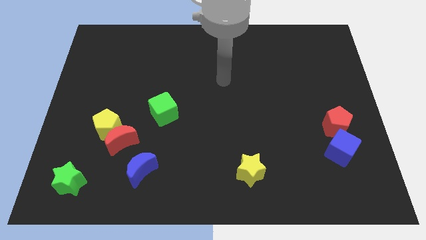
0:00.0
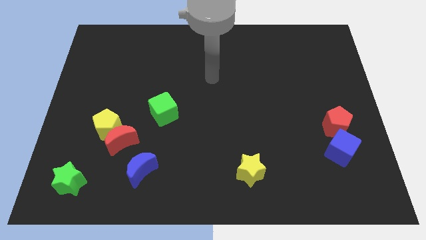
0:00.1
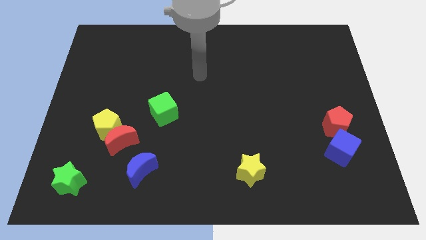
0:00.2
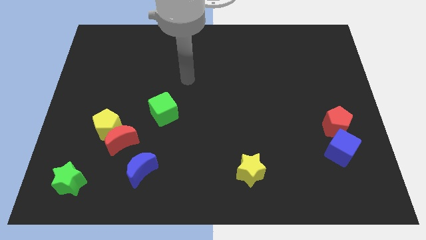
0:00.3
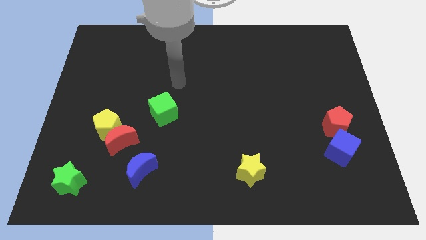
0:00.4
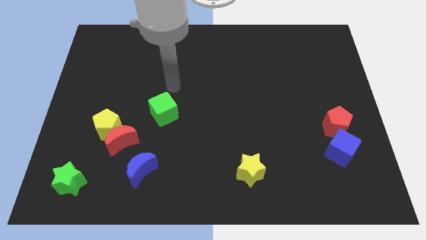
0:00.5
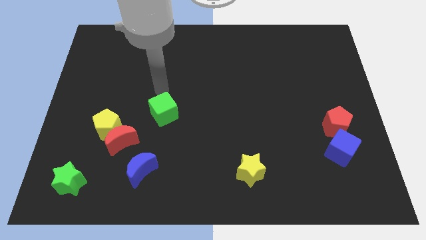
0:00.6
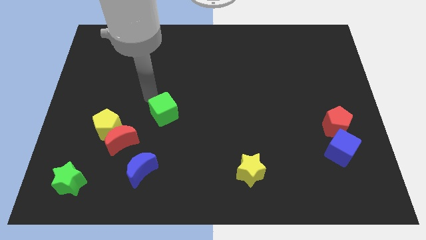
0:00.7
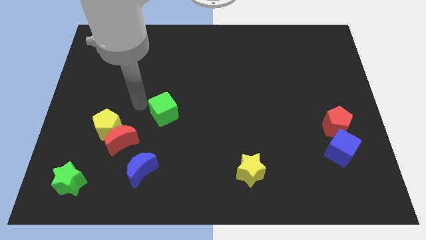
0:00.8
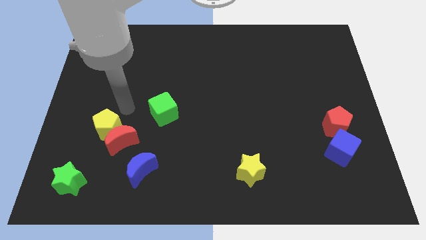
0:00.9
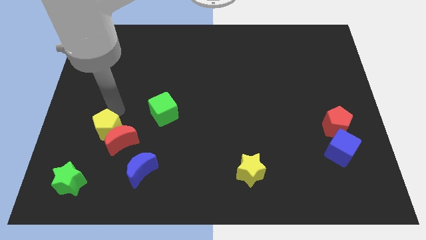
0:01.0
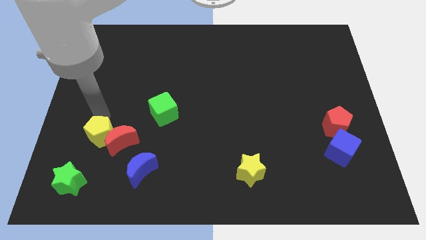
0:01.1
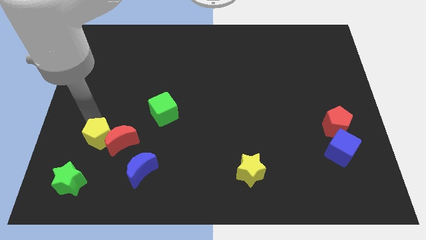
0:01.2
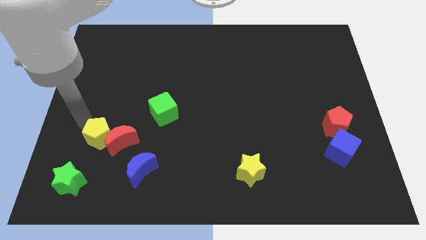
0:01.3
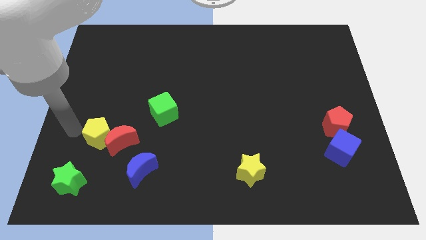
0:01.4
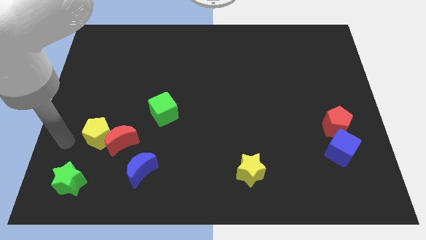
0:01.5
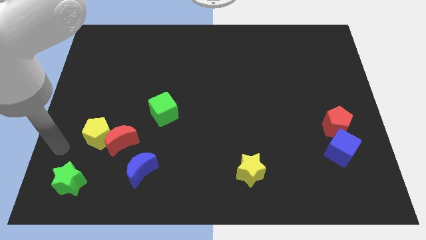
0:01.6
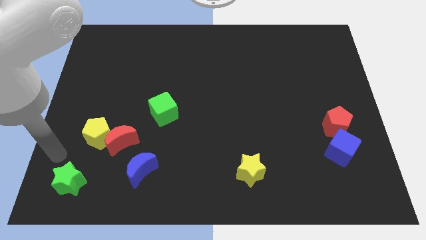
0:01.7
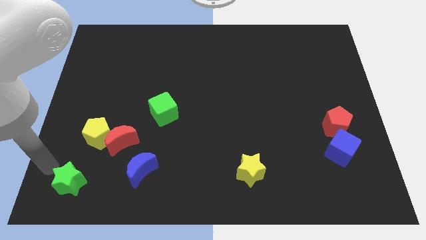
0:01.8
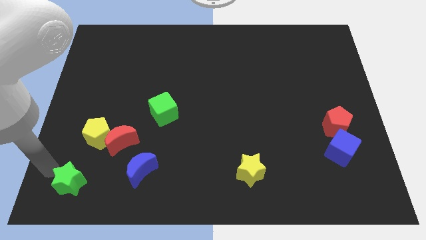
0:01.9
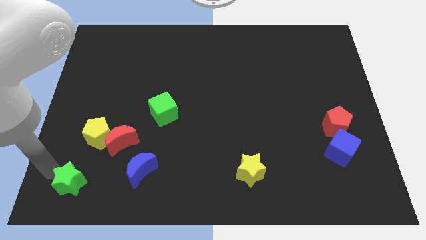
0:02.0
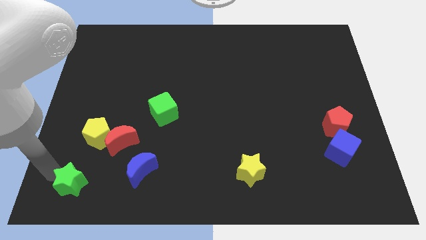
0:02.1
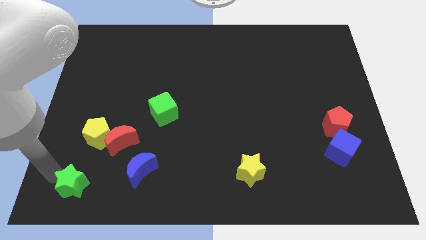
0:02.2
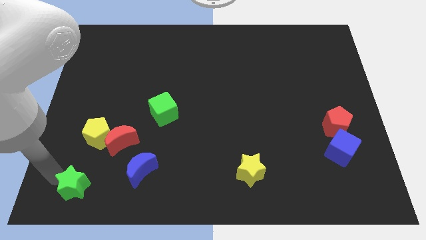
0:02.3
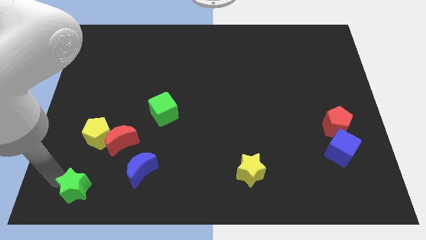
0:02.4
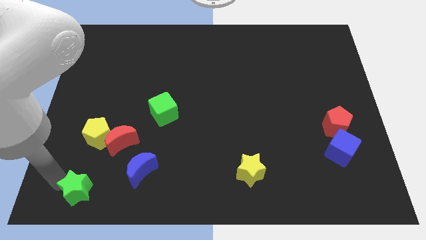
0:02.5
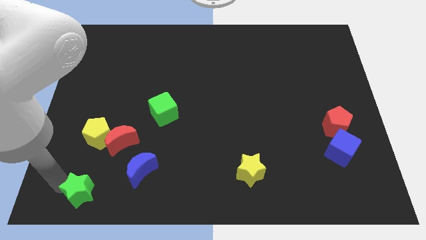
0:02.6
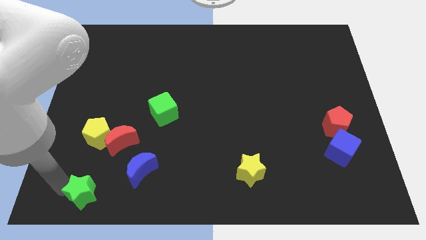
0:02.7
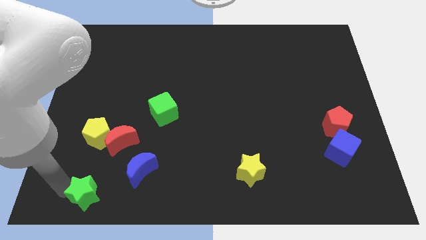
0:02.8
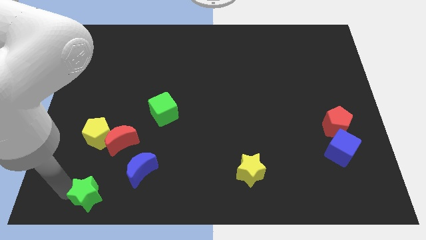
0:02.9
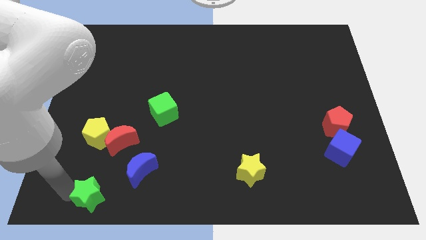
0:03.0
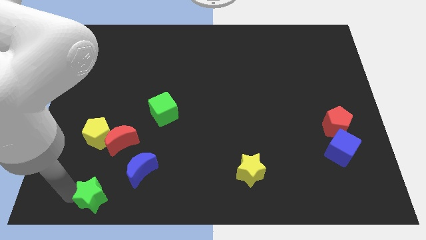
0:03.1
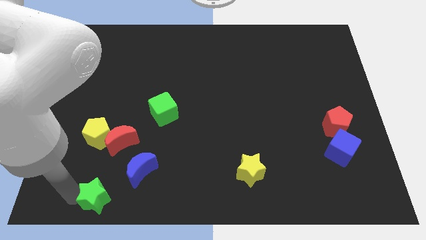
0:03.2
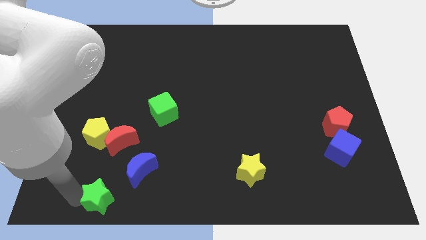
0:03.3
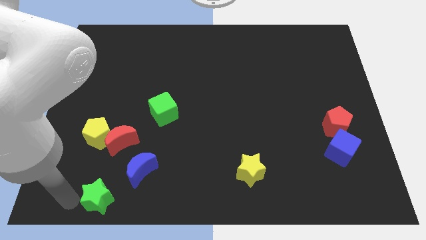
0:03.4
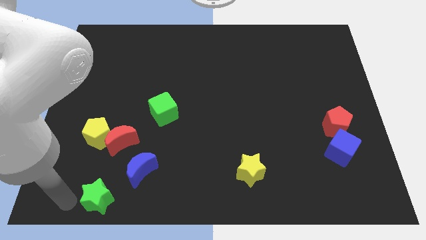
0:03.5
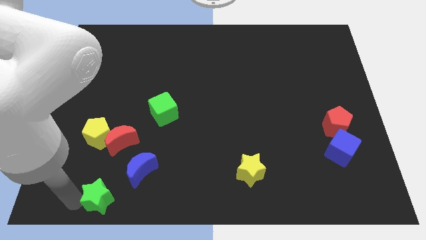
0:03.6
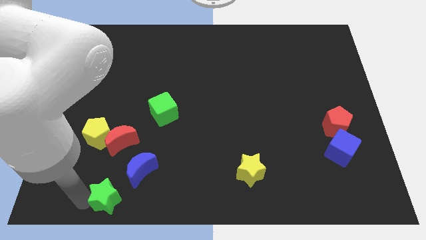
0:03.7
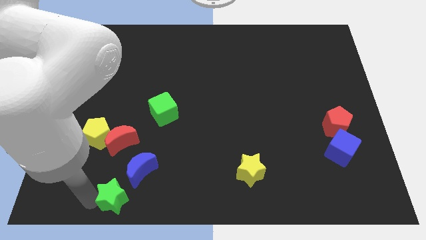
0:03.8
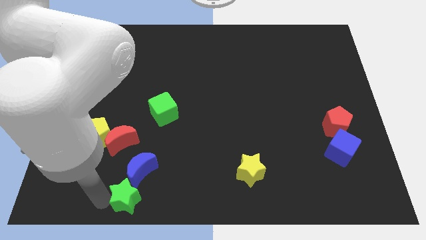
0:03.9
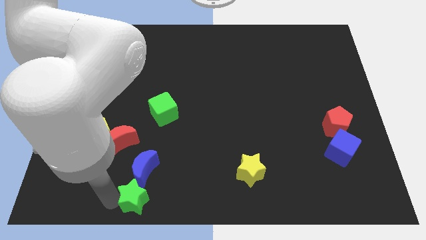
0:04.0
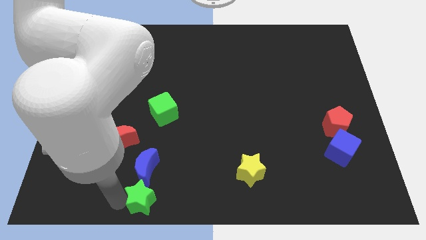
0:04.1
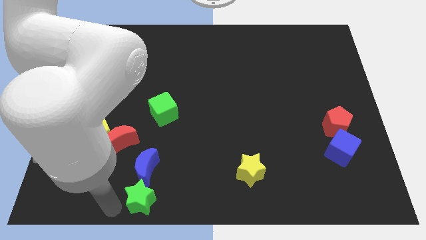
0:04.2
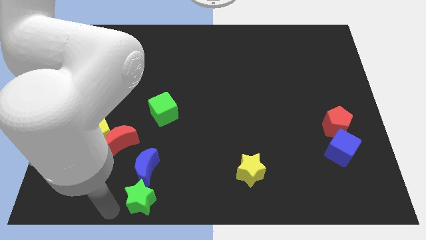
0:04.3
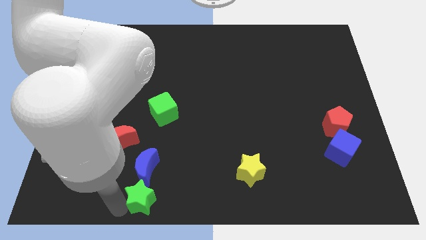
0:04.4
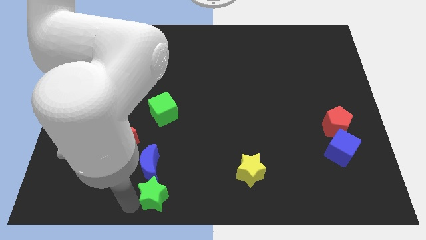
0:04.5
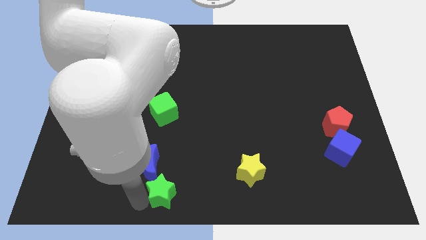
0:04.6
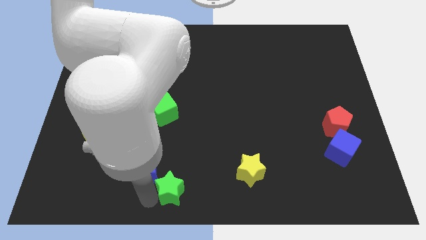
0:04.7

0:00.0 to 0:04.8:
push the green star to the right

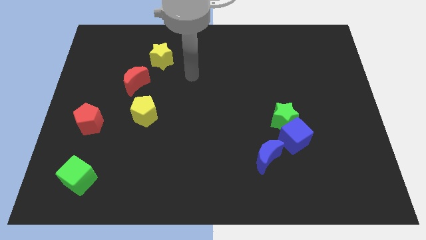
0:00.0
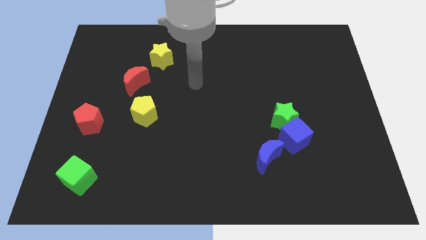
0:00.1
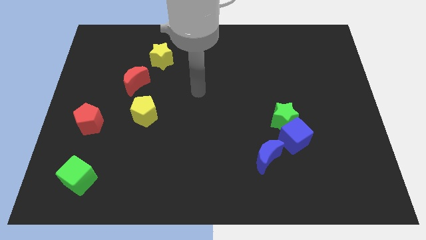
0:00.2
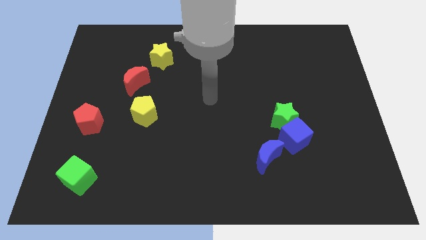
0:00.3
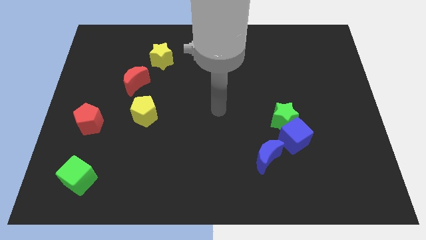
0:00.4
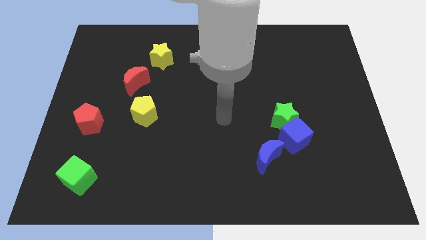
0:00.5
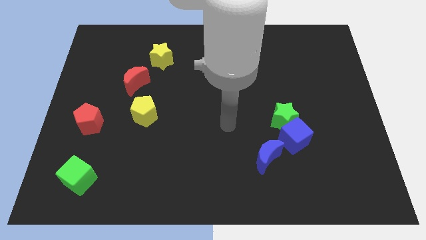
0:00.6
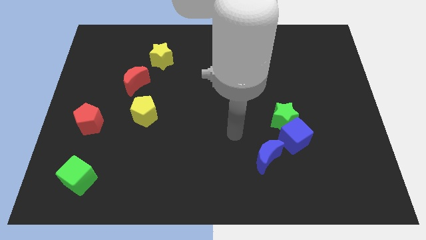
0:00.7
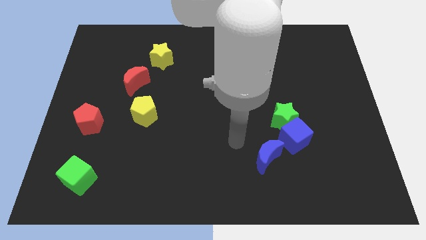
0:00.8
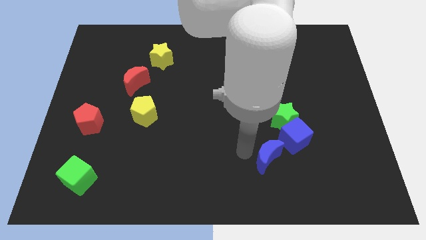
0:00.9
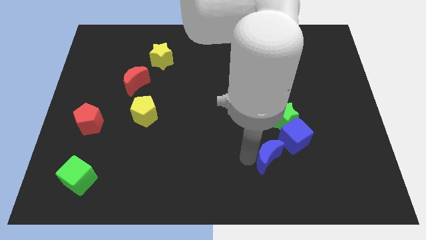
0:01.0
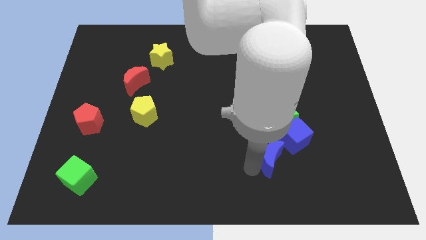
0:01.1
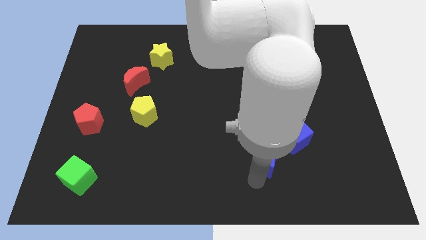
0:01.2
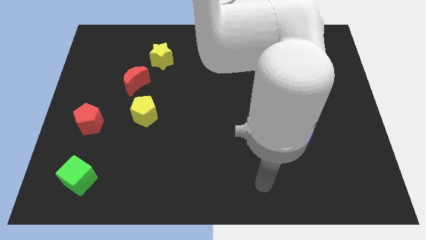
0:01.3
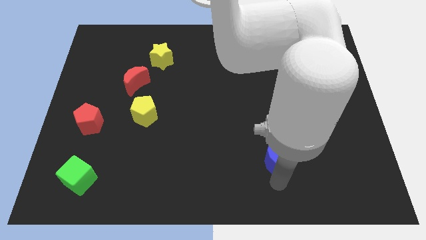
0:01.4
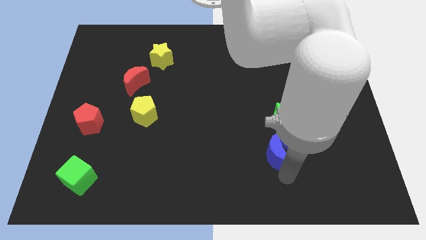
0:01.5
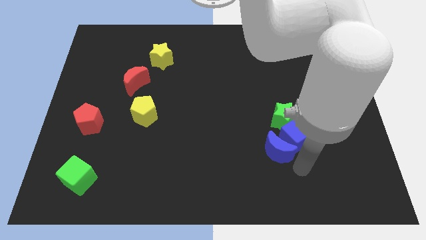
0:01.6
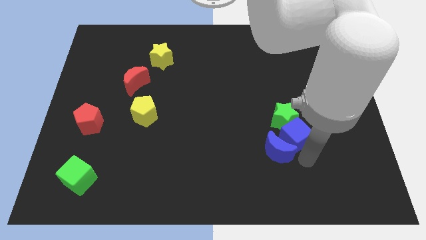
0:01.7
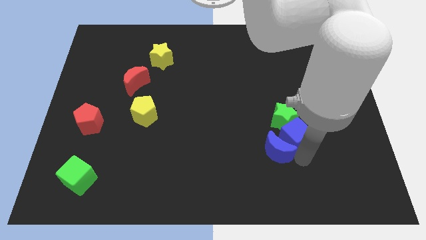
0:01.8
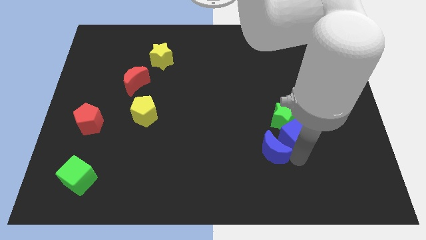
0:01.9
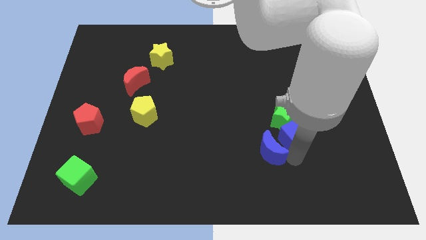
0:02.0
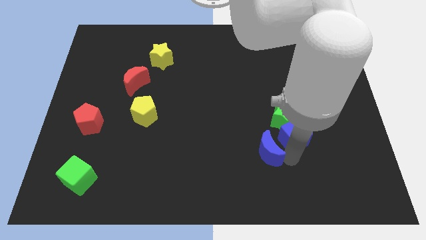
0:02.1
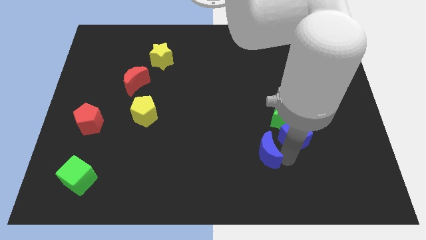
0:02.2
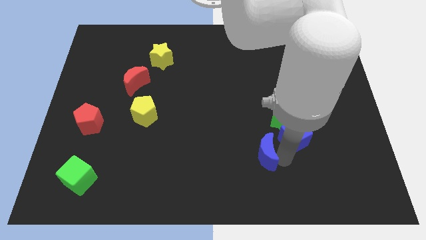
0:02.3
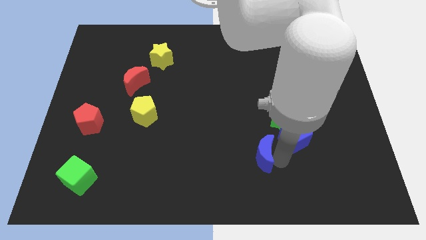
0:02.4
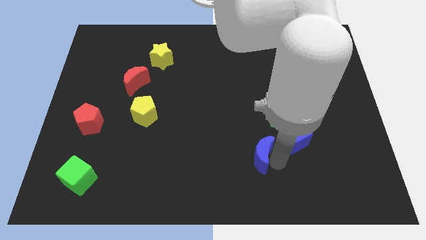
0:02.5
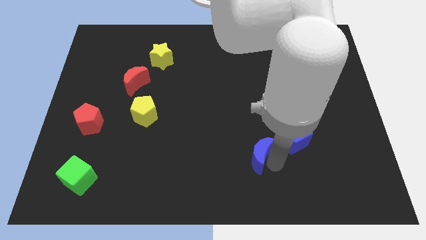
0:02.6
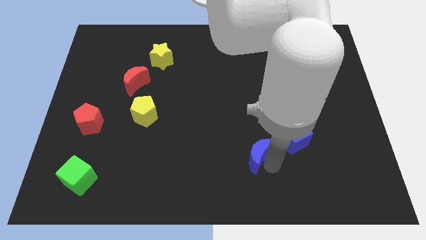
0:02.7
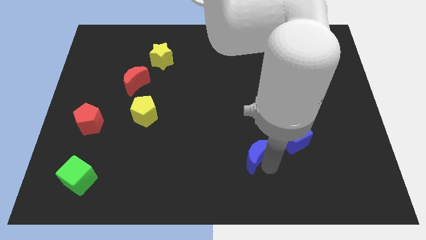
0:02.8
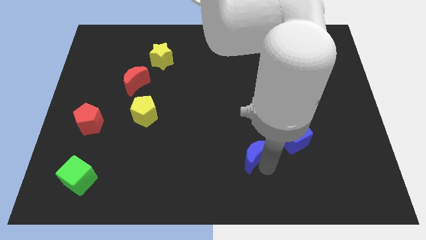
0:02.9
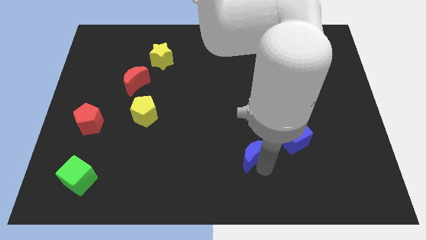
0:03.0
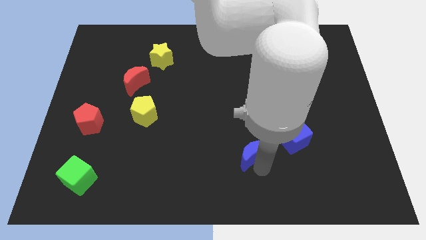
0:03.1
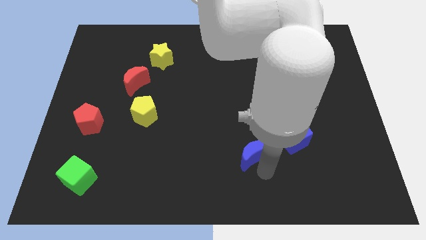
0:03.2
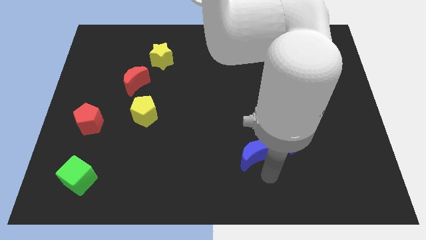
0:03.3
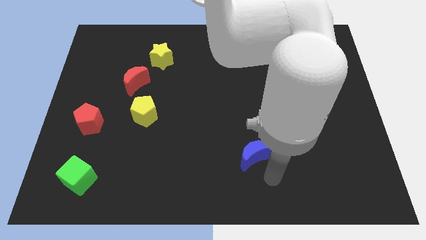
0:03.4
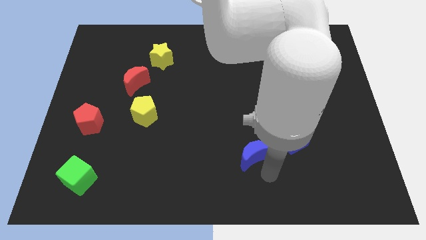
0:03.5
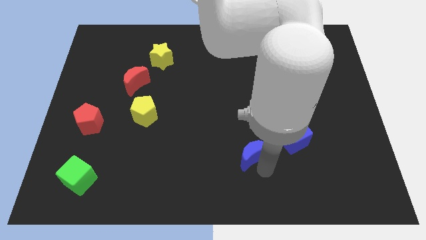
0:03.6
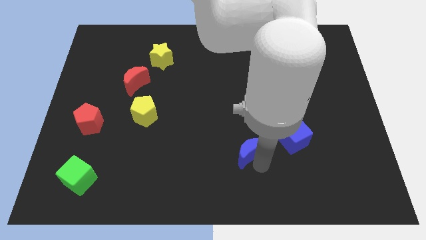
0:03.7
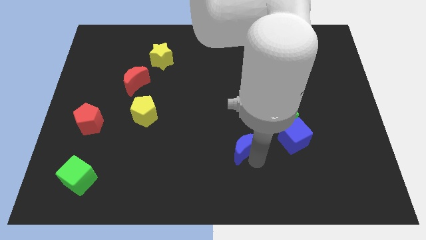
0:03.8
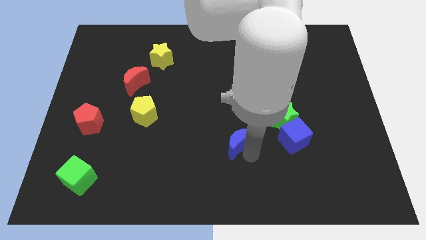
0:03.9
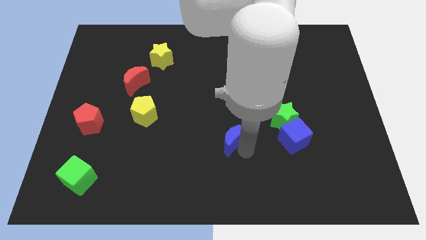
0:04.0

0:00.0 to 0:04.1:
move the blue moon diagonally upwards and to the left a bit
